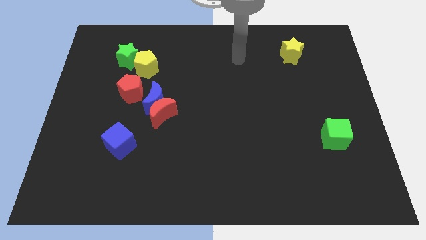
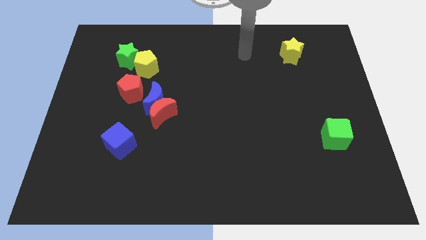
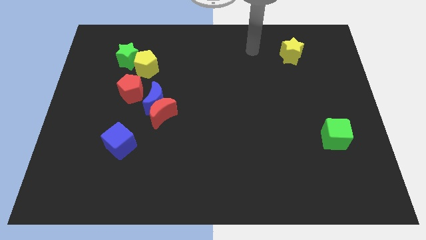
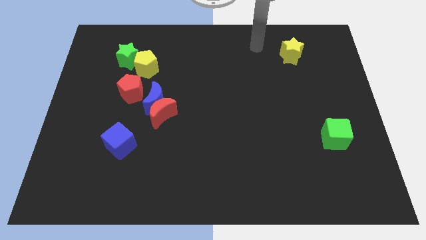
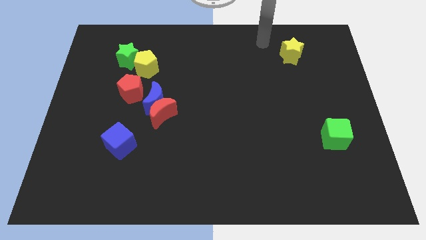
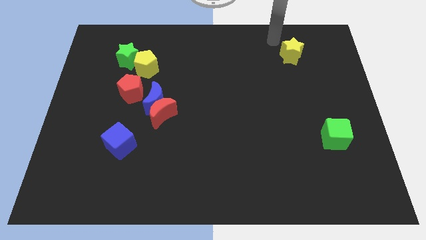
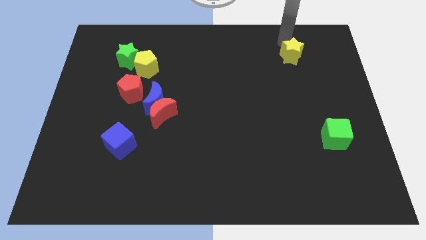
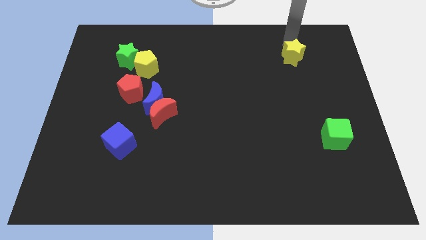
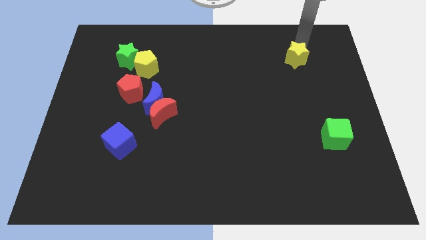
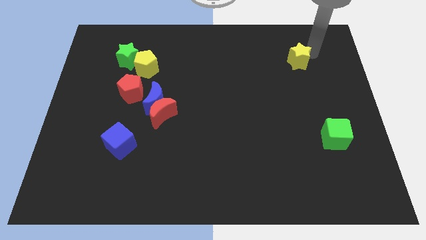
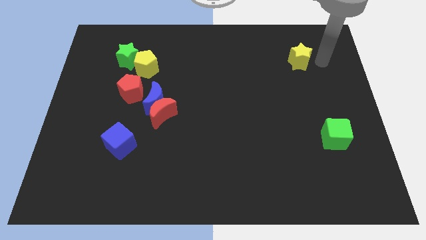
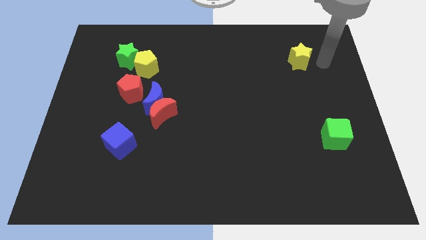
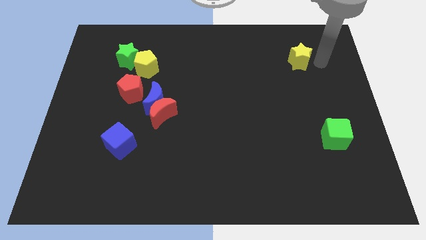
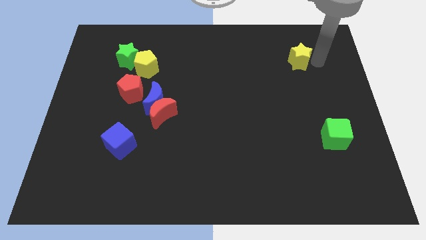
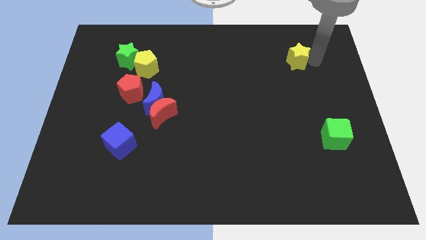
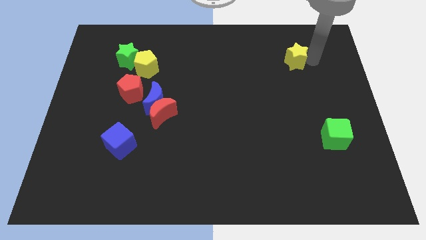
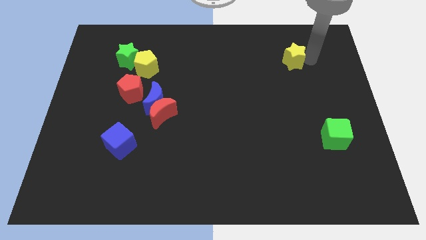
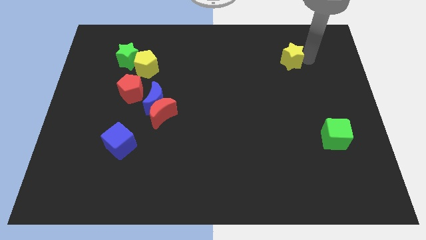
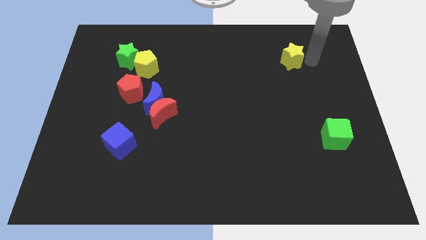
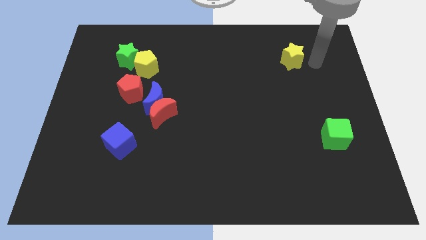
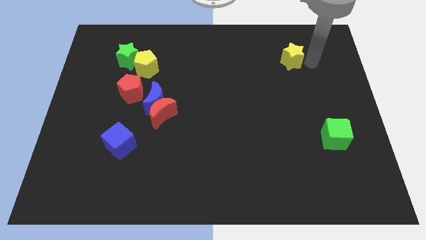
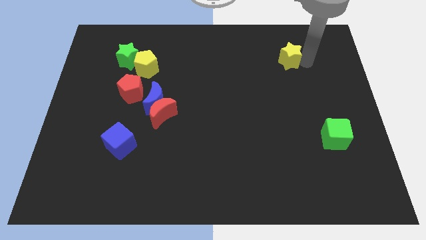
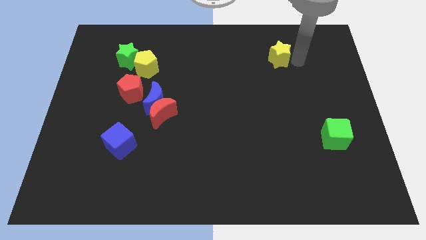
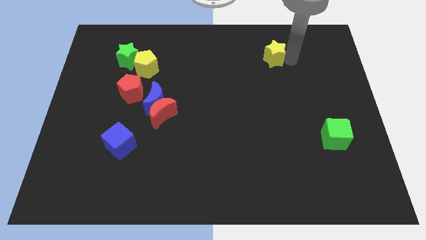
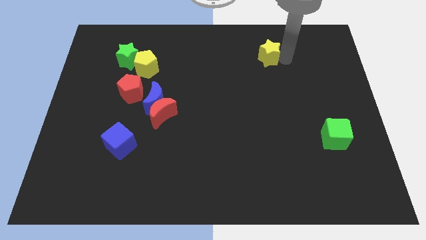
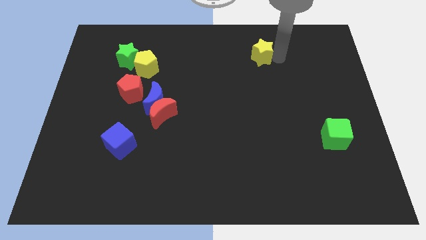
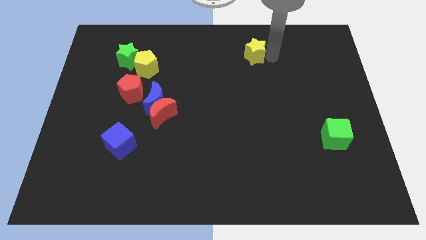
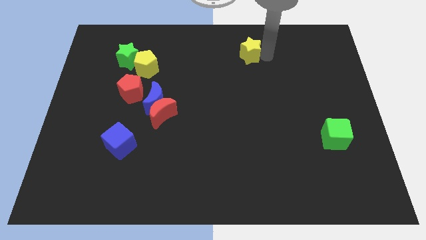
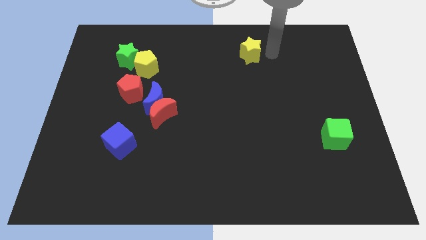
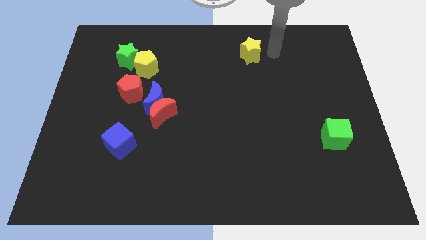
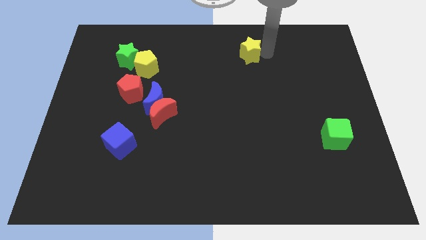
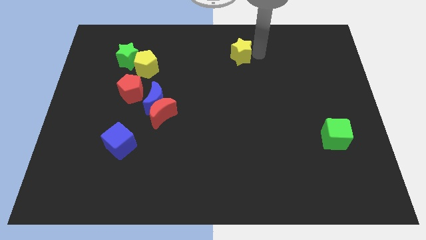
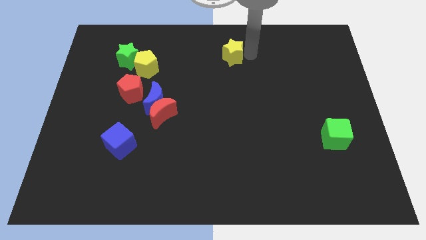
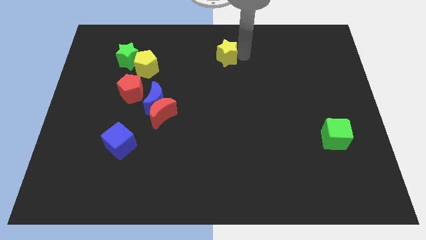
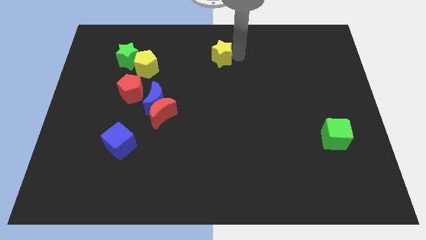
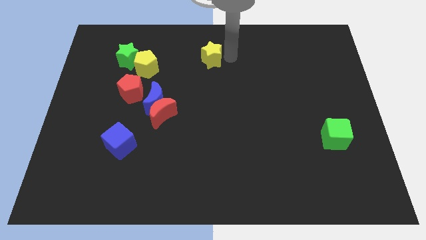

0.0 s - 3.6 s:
move the yellow star left

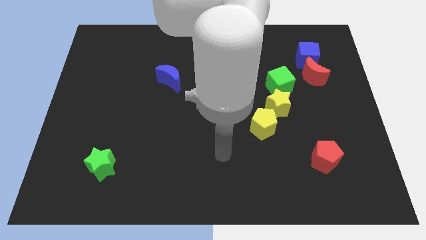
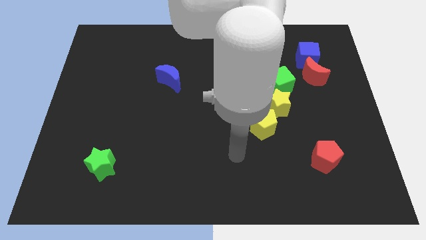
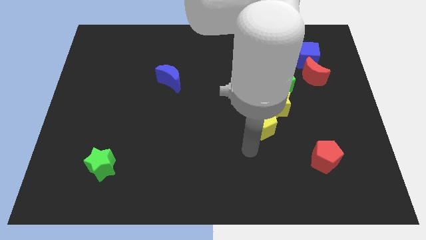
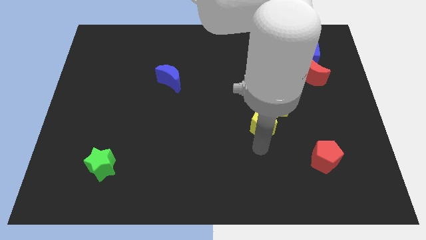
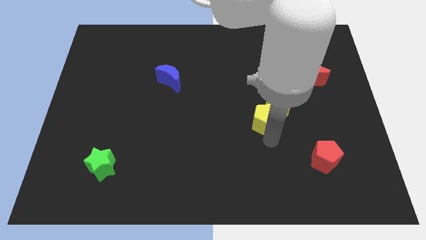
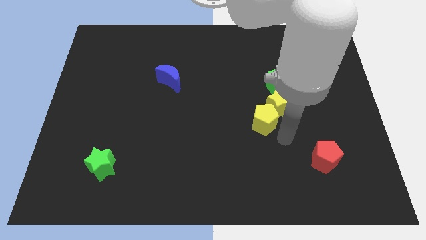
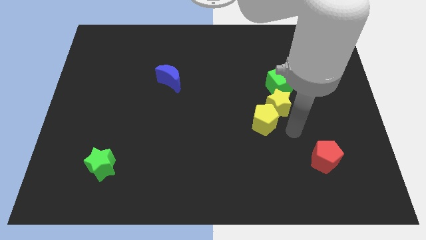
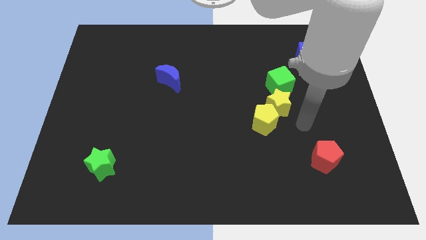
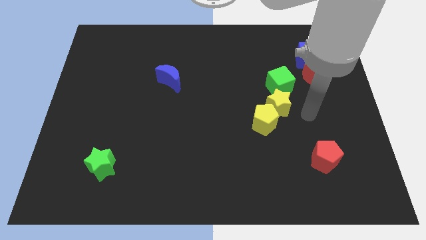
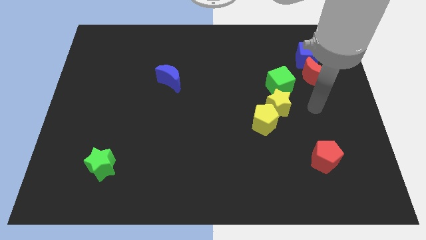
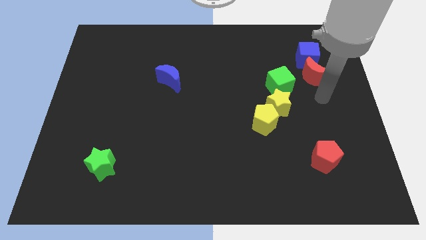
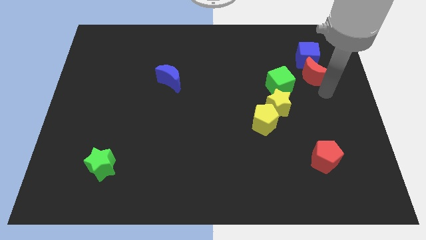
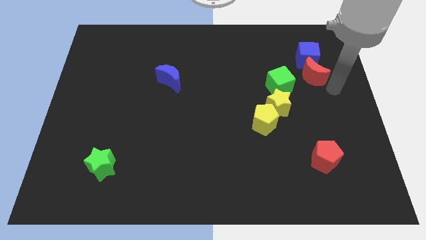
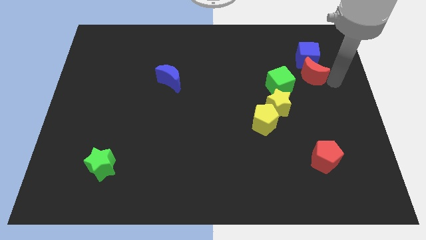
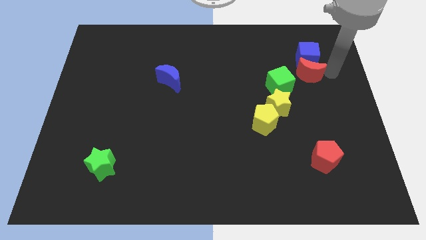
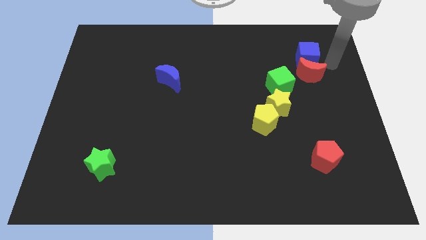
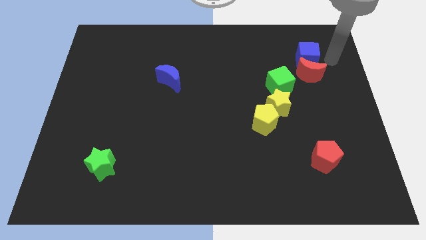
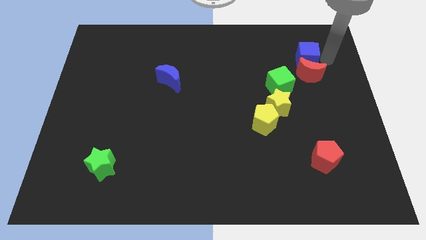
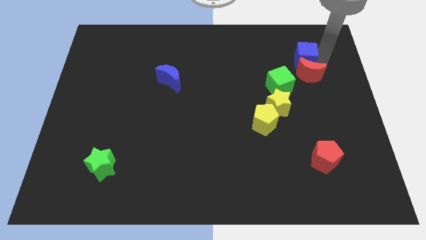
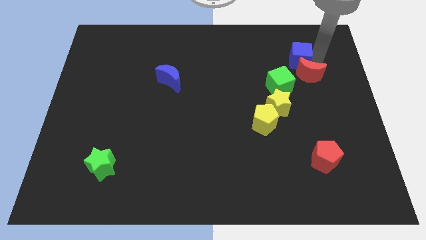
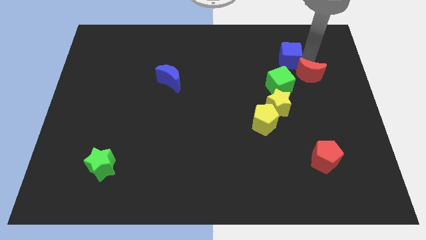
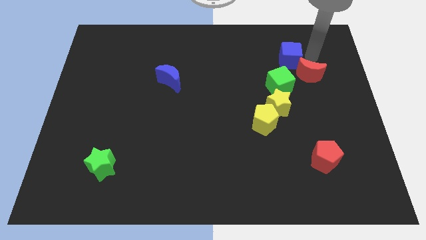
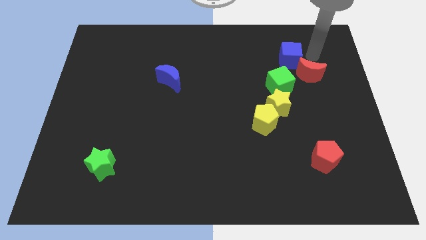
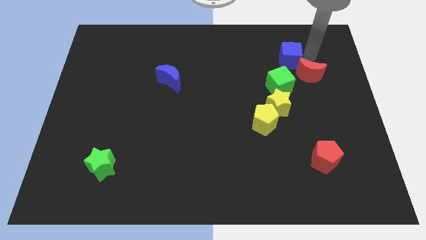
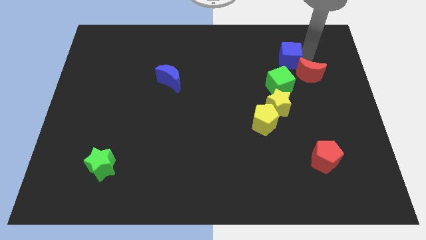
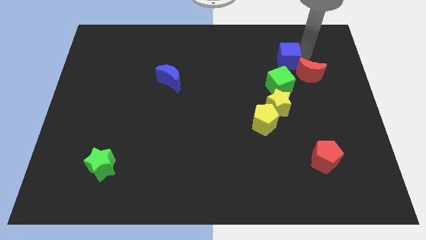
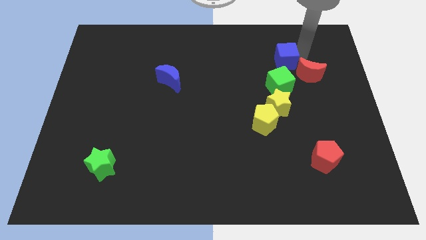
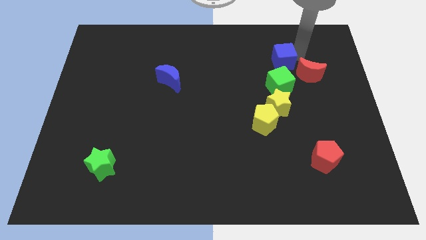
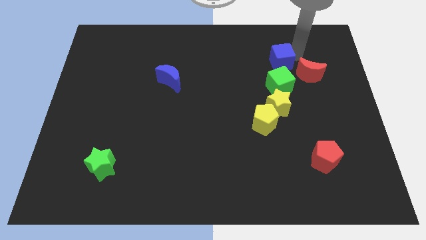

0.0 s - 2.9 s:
slide the blue cube left somewhat

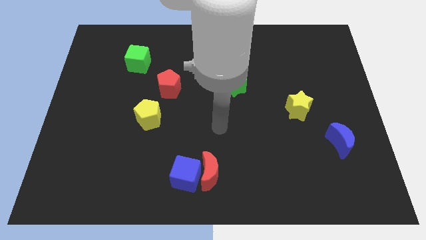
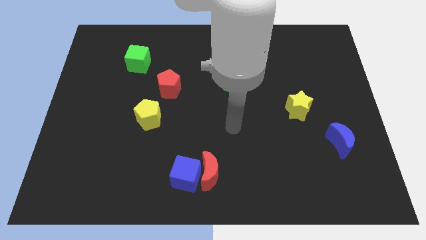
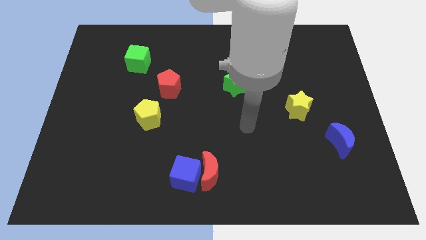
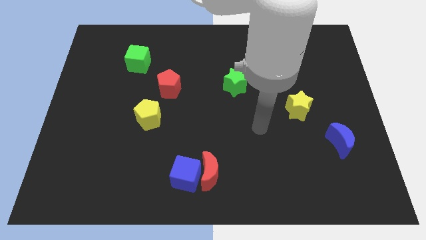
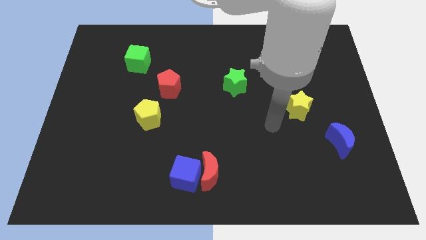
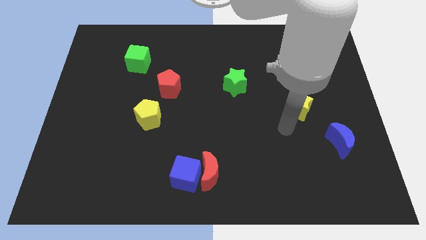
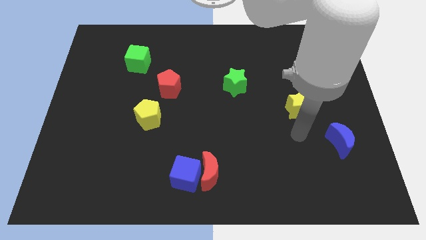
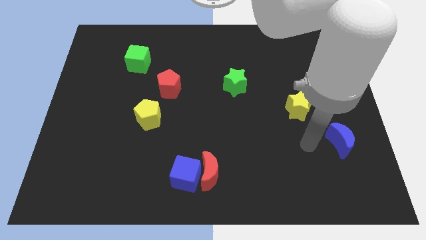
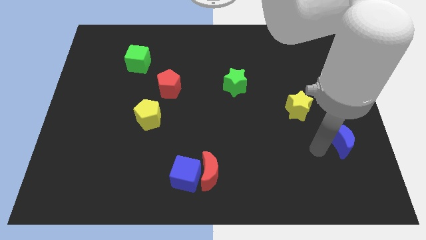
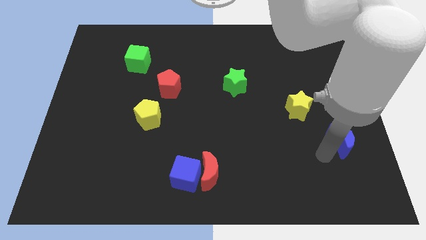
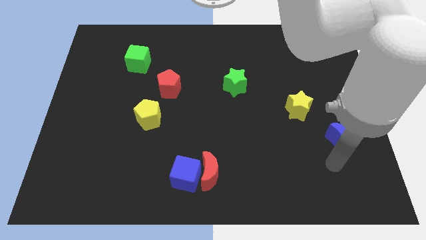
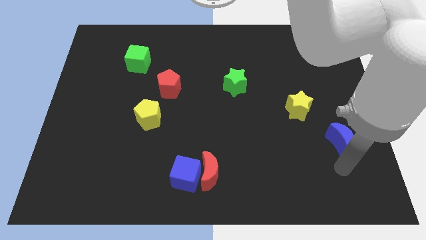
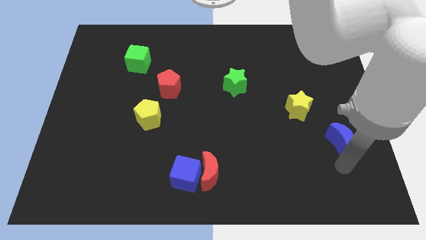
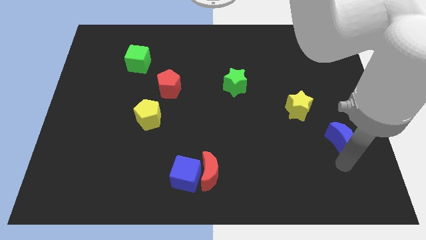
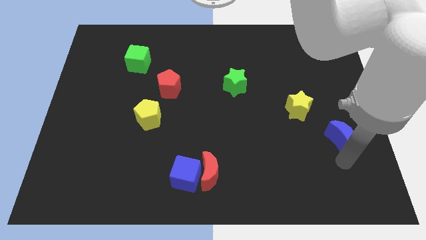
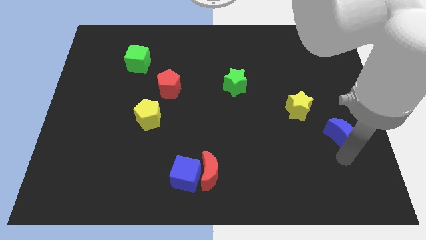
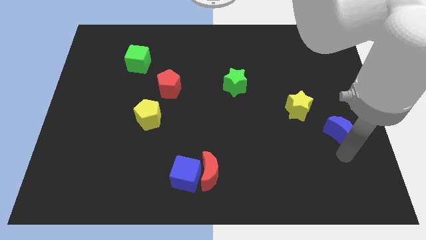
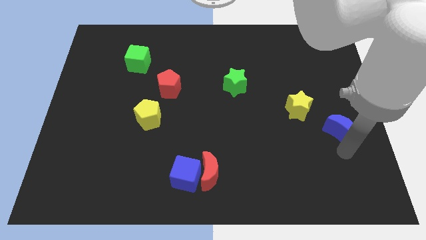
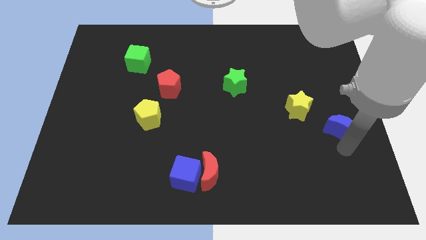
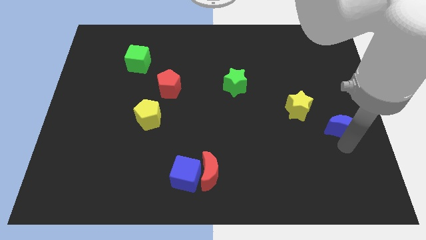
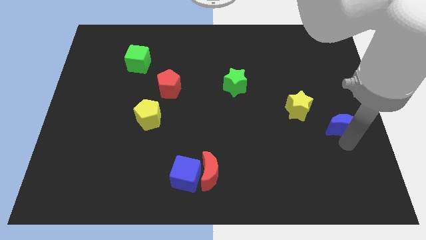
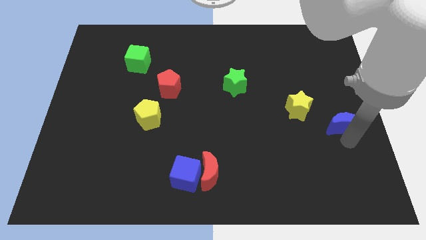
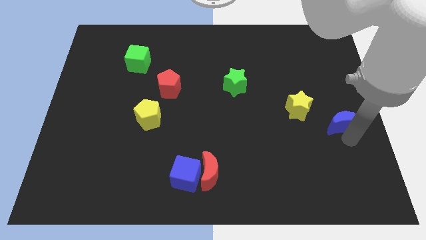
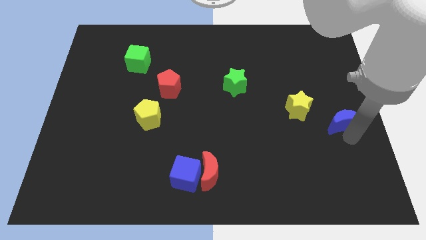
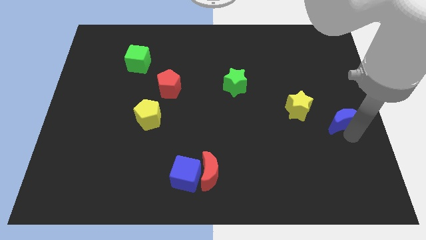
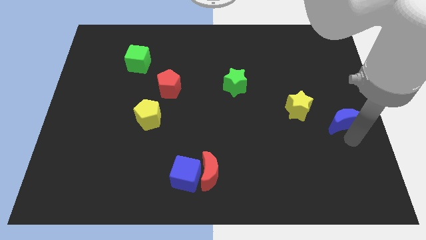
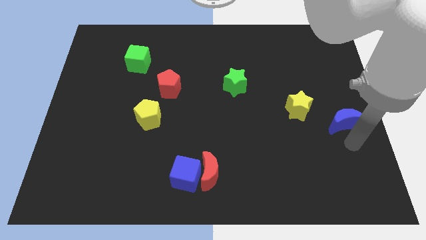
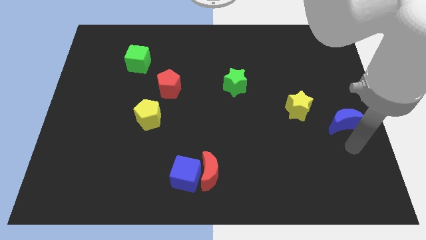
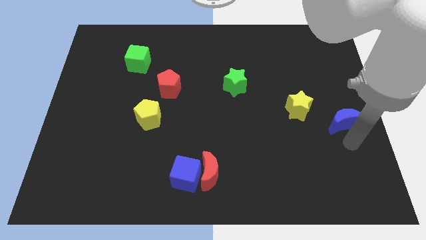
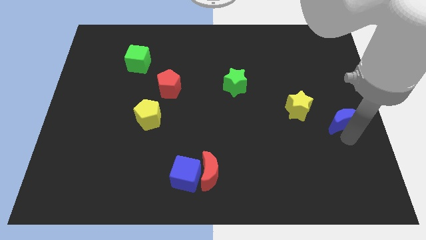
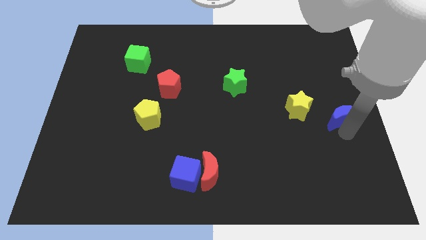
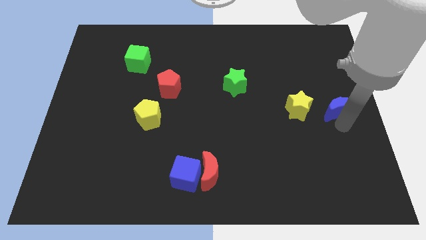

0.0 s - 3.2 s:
slightly slide the blue moon upwards
